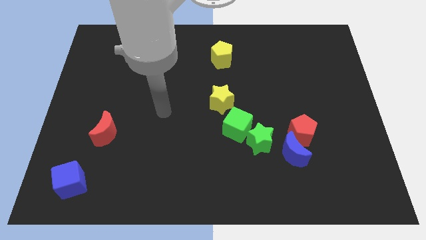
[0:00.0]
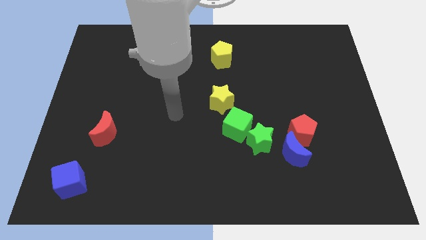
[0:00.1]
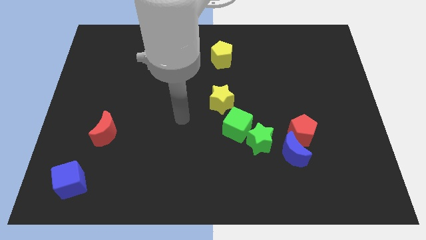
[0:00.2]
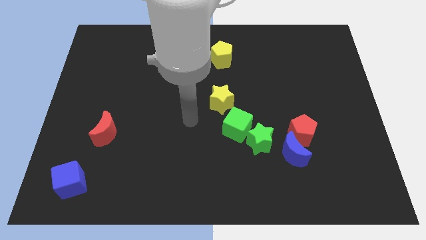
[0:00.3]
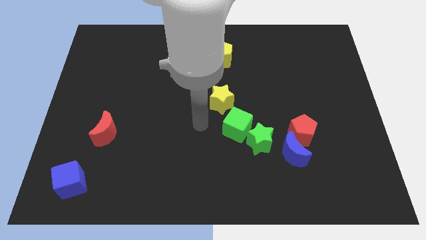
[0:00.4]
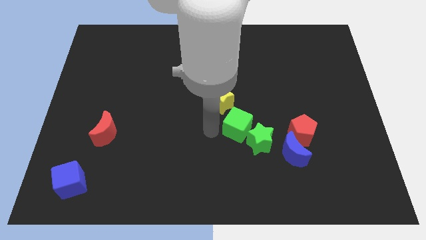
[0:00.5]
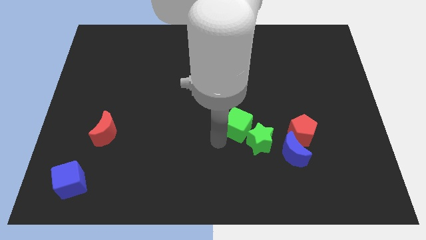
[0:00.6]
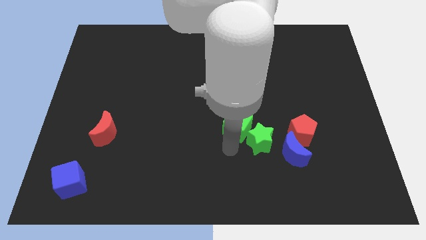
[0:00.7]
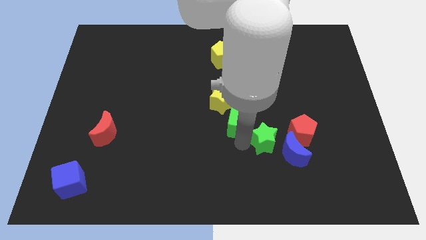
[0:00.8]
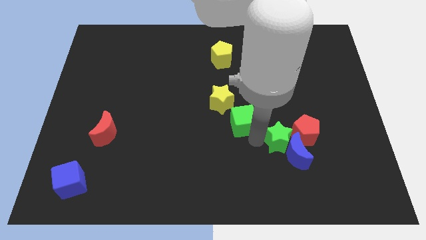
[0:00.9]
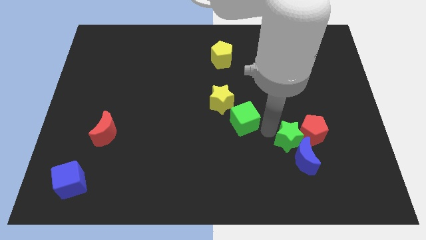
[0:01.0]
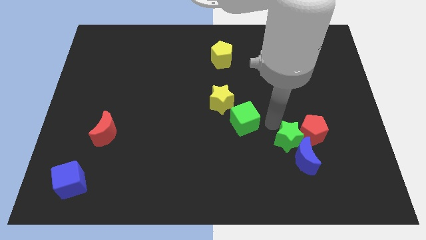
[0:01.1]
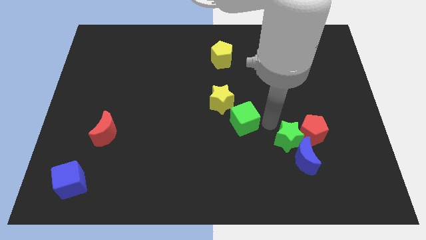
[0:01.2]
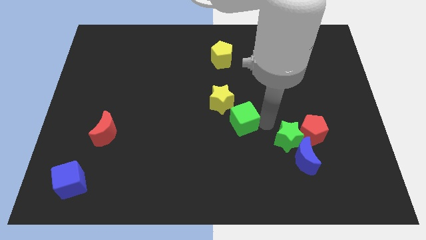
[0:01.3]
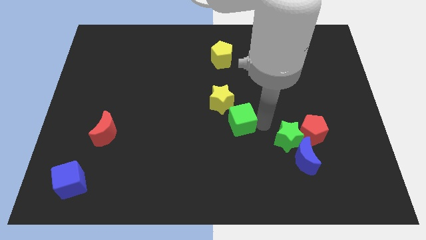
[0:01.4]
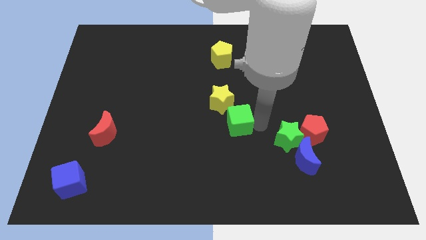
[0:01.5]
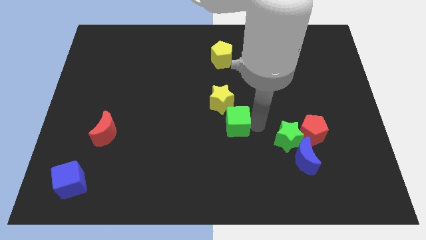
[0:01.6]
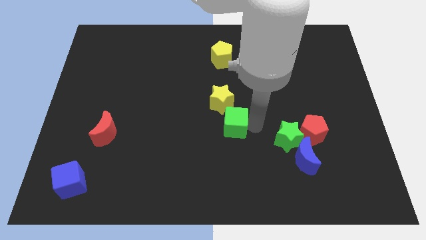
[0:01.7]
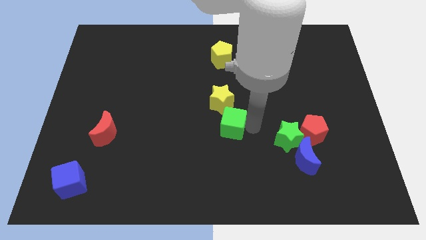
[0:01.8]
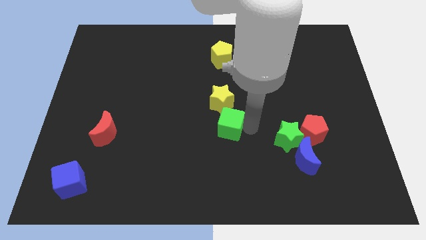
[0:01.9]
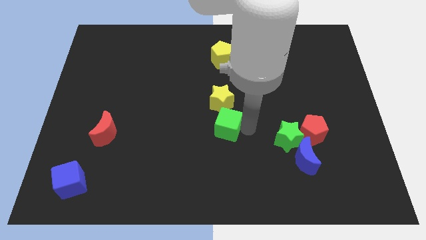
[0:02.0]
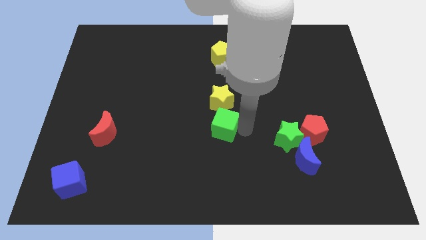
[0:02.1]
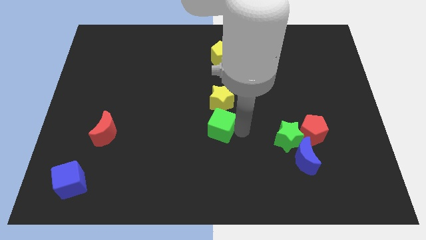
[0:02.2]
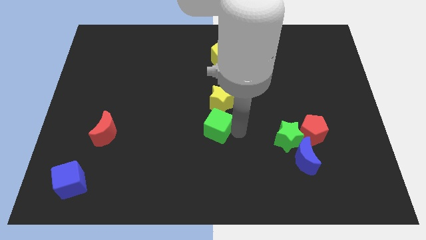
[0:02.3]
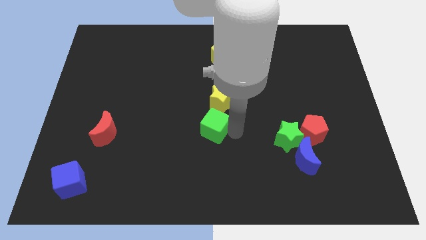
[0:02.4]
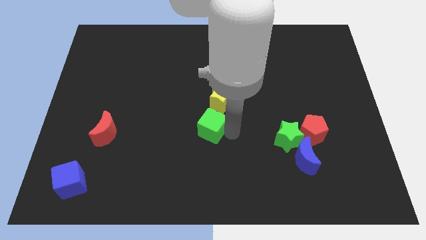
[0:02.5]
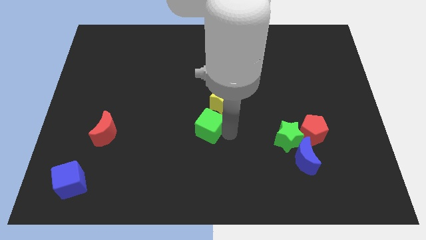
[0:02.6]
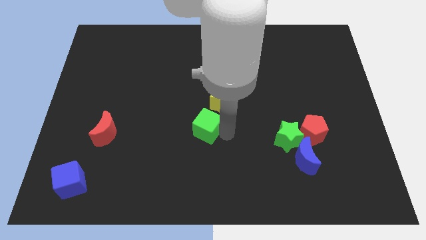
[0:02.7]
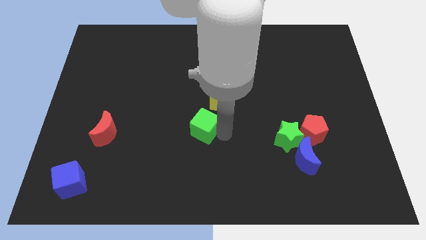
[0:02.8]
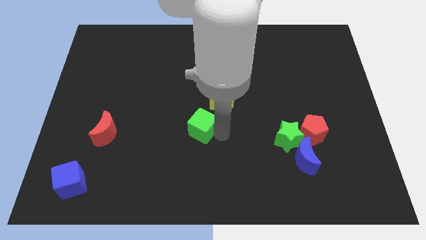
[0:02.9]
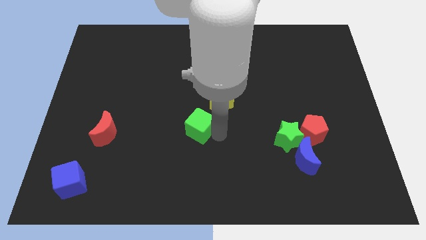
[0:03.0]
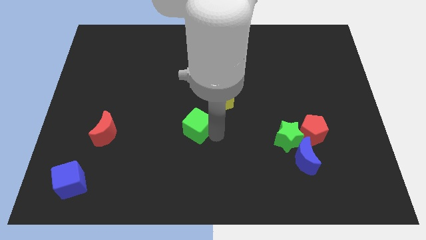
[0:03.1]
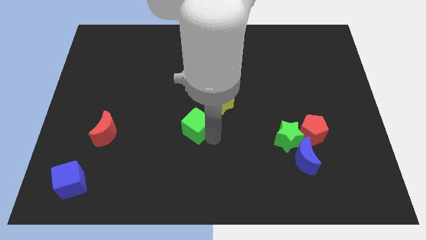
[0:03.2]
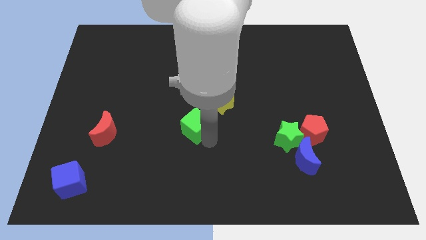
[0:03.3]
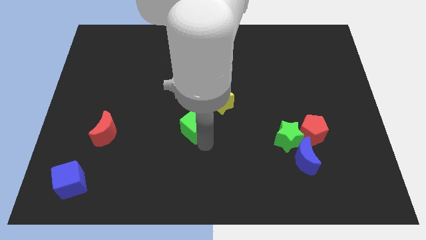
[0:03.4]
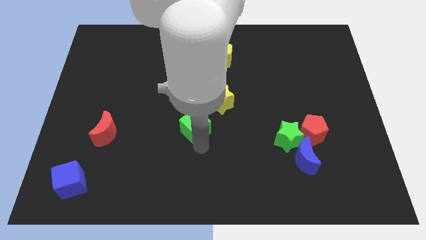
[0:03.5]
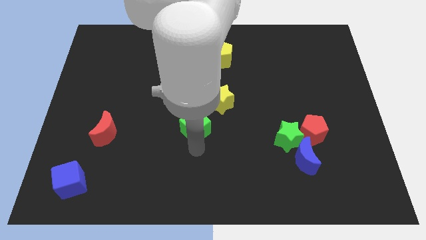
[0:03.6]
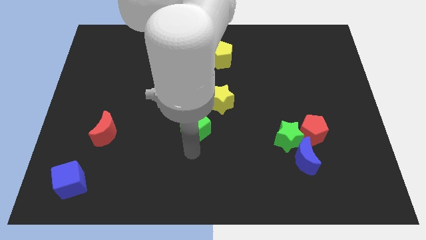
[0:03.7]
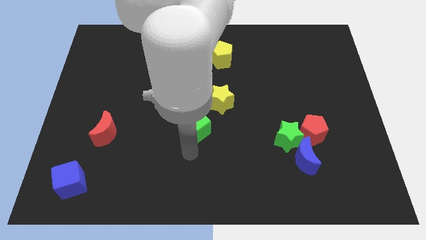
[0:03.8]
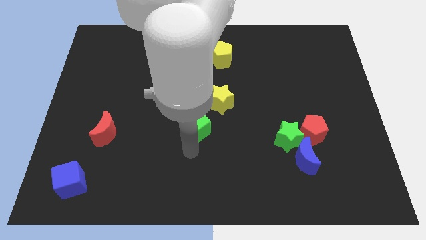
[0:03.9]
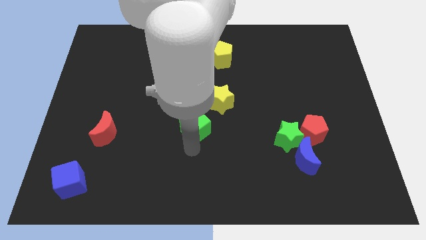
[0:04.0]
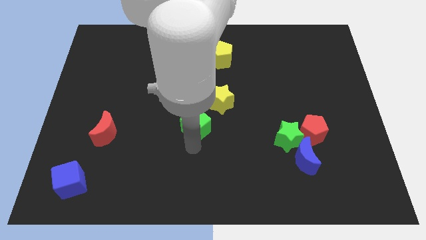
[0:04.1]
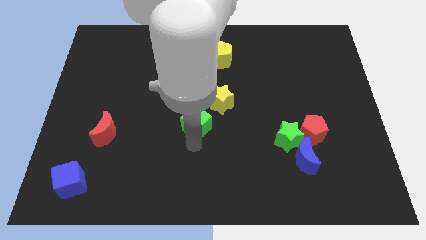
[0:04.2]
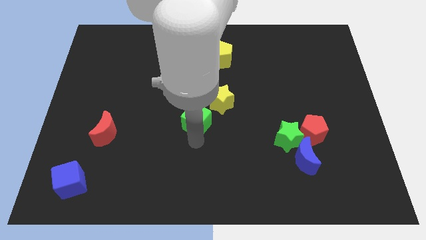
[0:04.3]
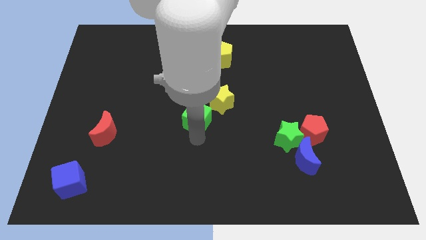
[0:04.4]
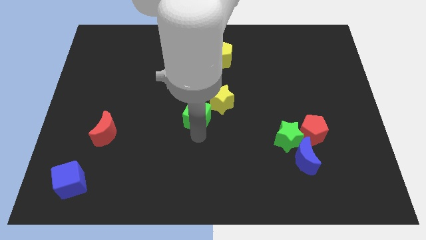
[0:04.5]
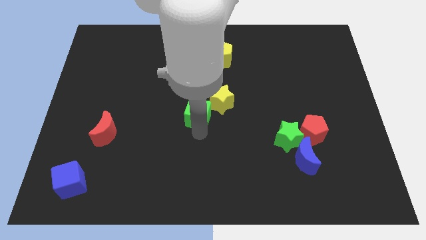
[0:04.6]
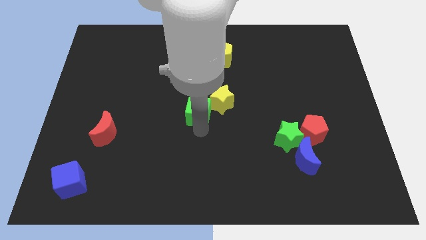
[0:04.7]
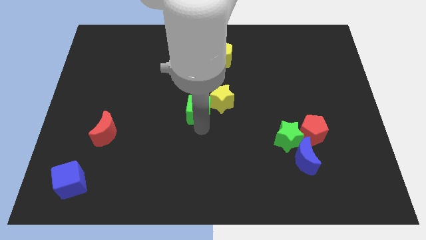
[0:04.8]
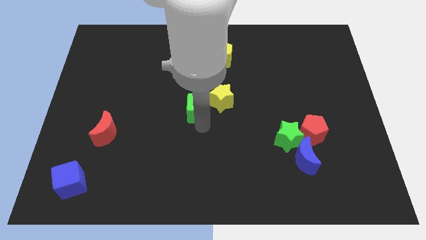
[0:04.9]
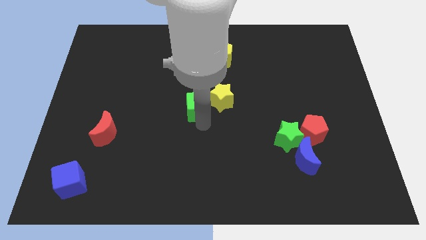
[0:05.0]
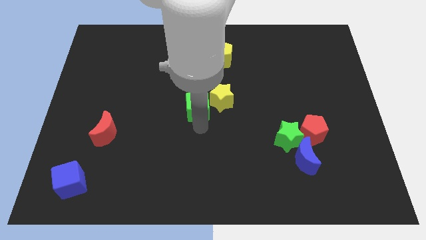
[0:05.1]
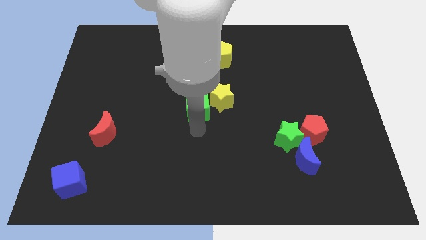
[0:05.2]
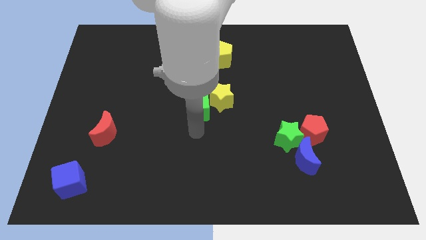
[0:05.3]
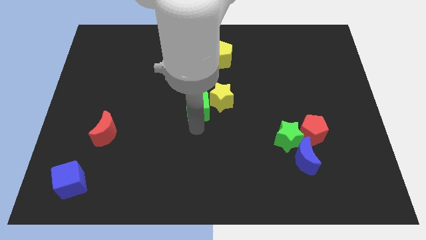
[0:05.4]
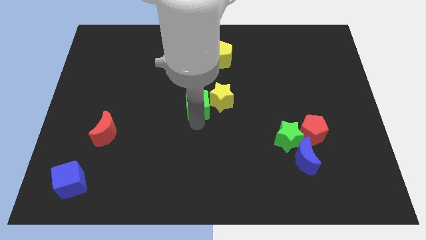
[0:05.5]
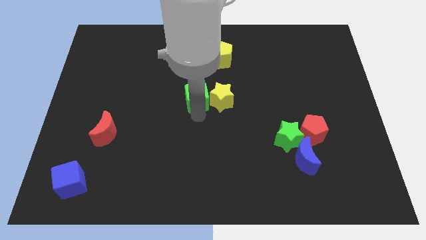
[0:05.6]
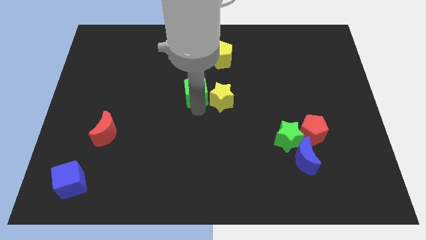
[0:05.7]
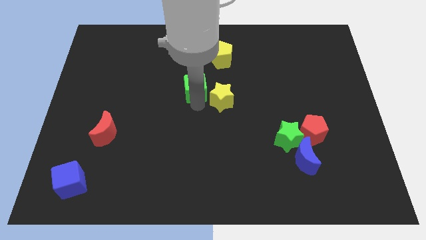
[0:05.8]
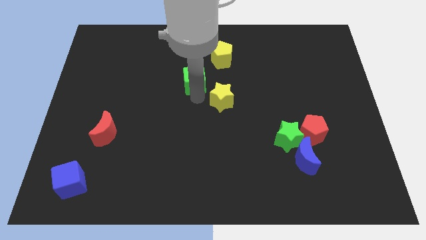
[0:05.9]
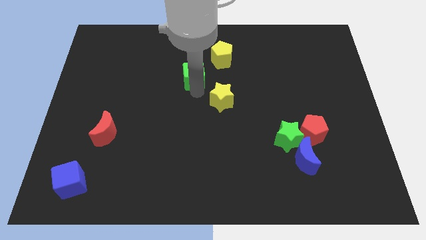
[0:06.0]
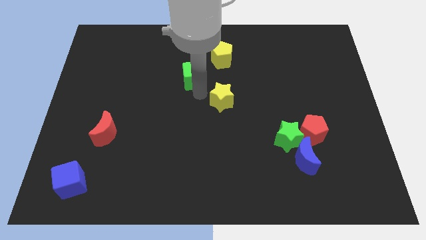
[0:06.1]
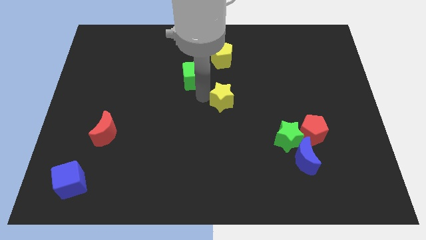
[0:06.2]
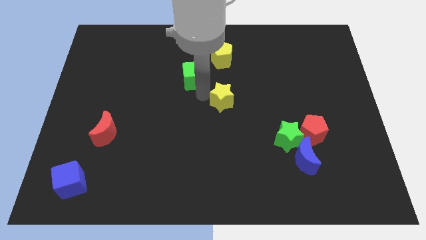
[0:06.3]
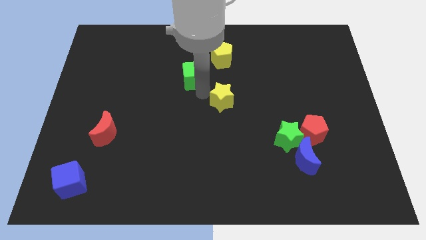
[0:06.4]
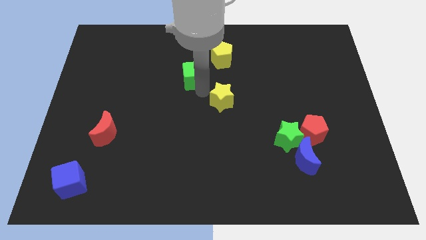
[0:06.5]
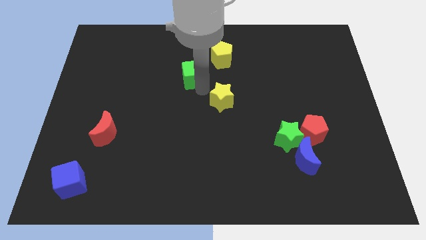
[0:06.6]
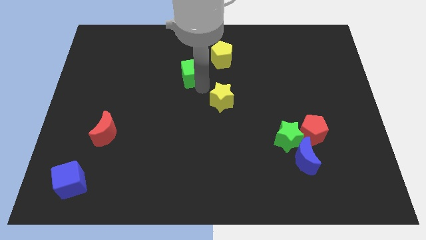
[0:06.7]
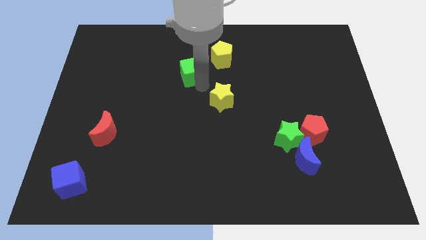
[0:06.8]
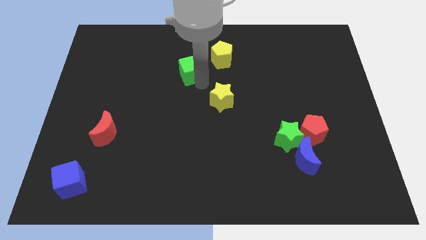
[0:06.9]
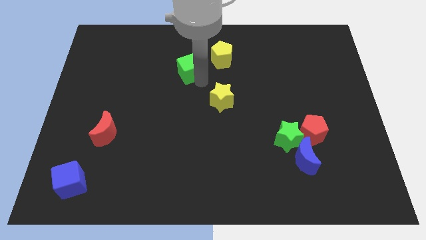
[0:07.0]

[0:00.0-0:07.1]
put the green cube just left of the yellow pentagon

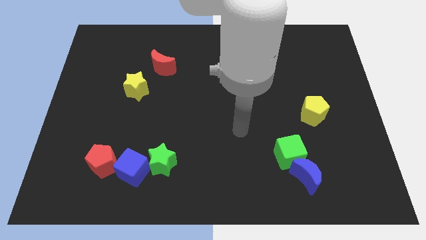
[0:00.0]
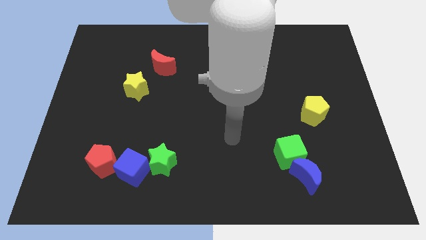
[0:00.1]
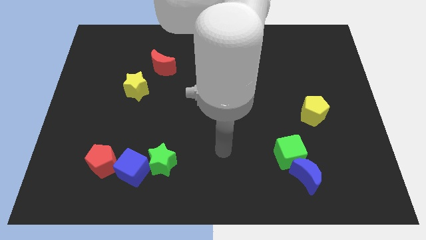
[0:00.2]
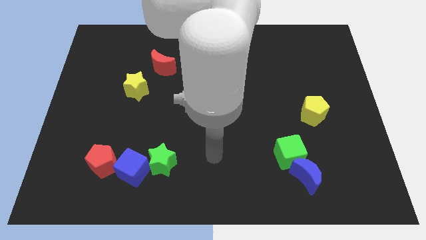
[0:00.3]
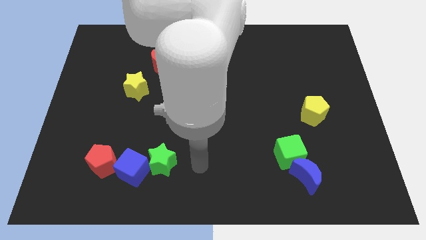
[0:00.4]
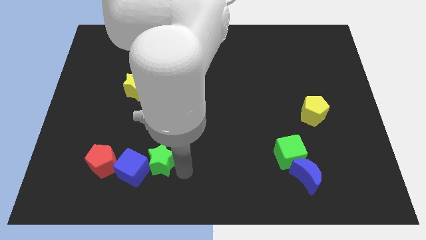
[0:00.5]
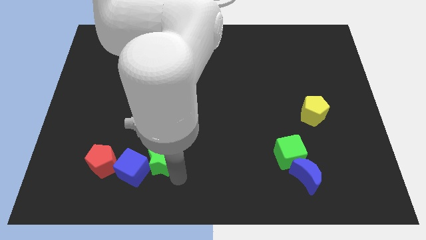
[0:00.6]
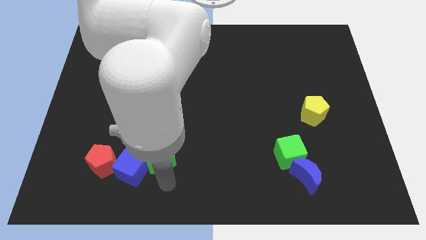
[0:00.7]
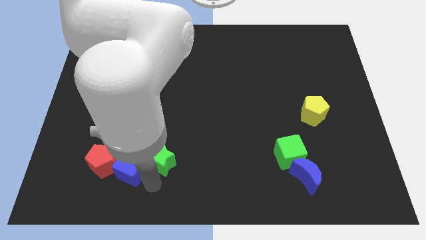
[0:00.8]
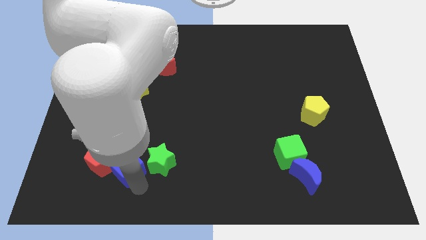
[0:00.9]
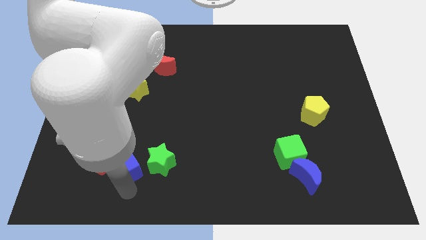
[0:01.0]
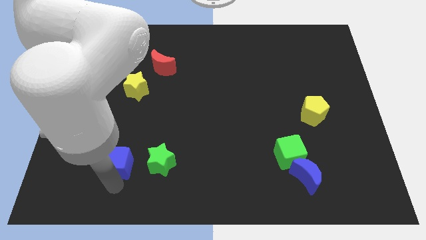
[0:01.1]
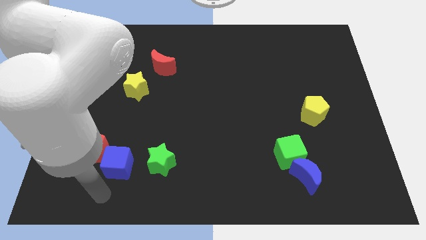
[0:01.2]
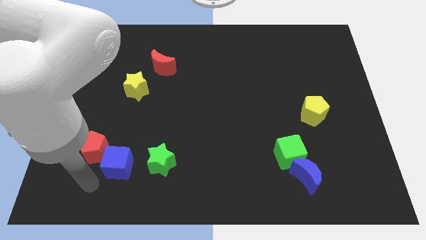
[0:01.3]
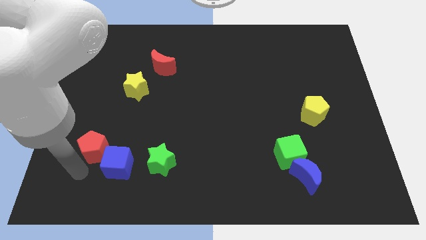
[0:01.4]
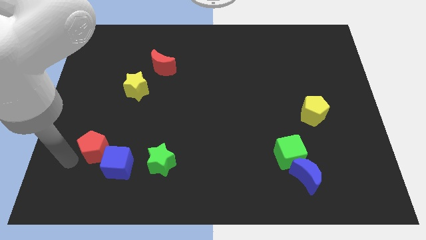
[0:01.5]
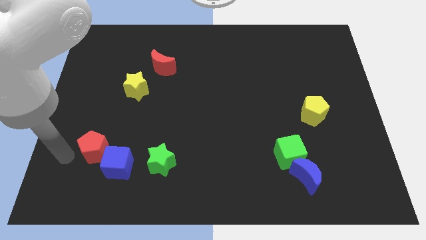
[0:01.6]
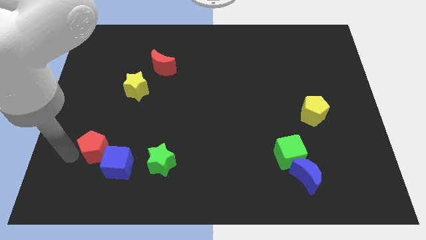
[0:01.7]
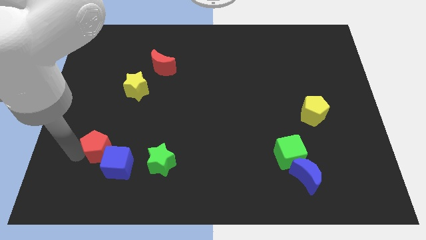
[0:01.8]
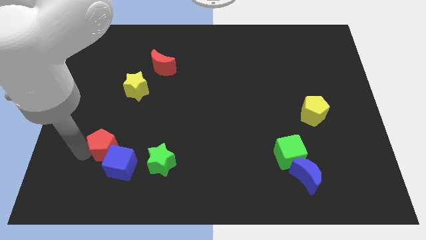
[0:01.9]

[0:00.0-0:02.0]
put the red pentagon above the blue cube
